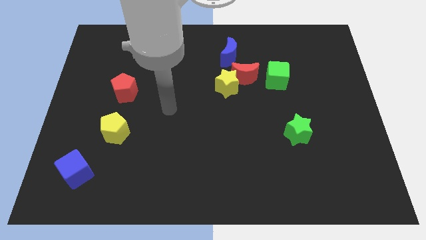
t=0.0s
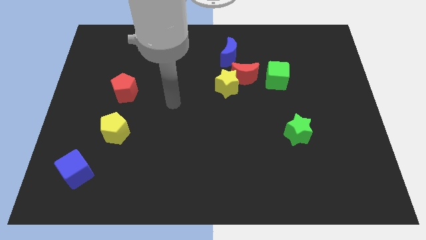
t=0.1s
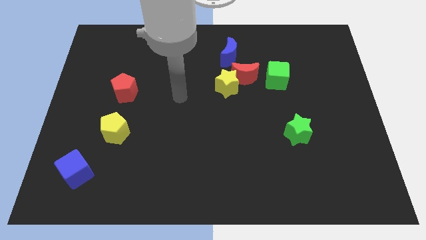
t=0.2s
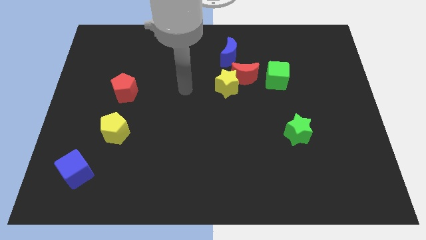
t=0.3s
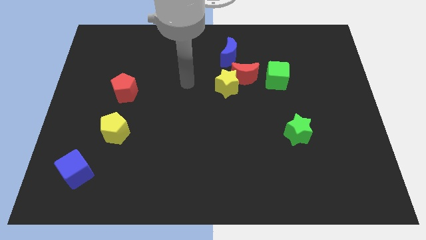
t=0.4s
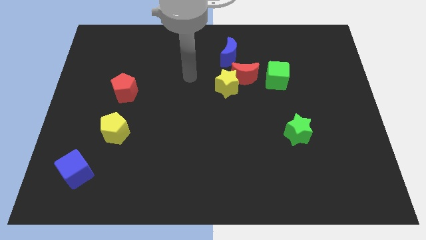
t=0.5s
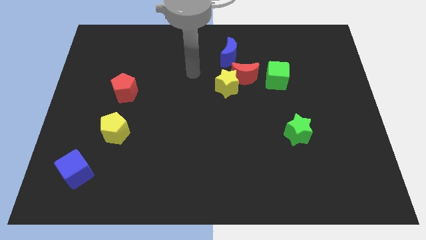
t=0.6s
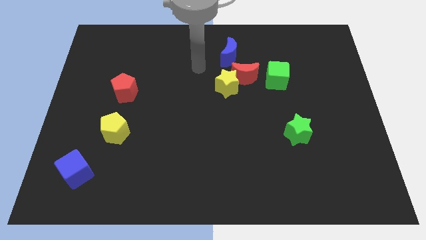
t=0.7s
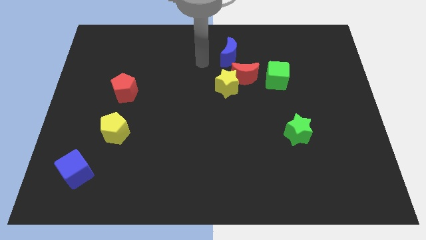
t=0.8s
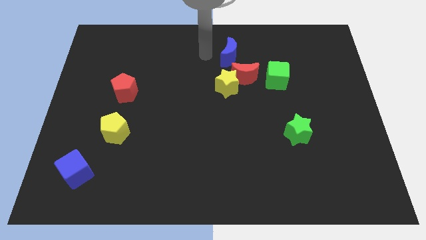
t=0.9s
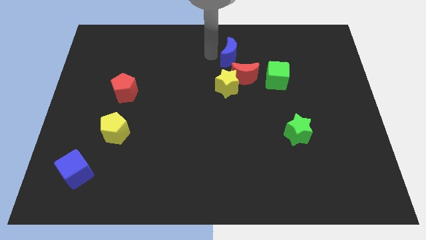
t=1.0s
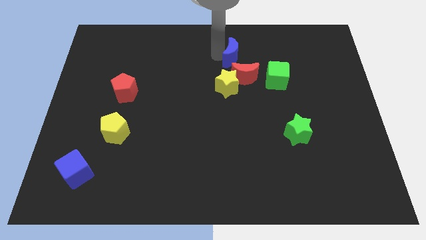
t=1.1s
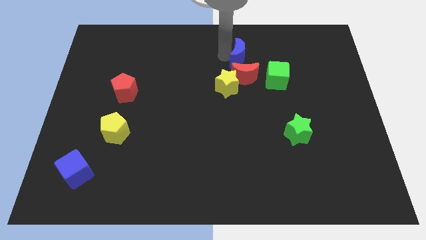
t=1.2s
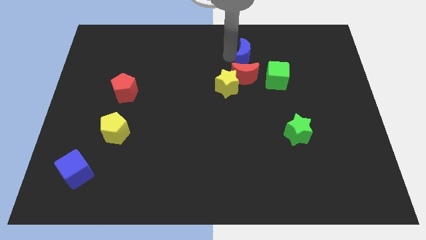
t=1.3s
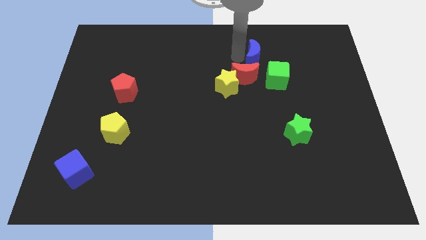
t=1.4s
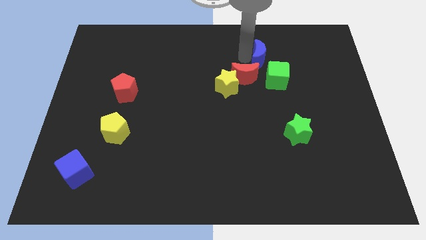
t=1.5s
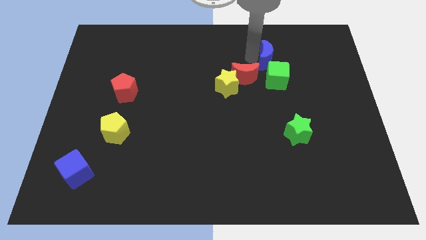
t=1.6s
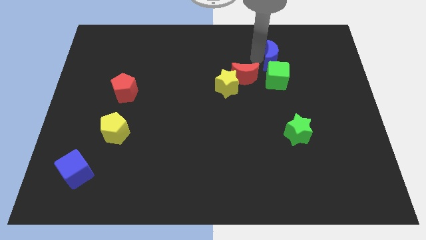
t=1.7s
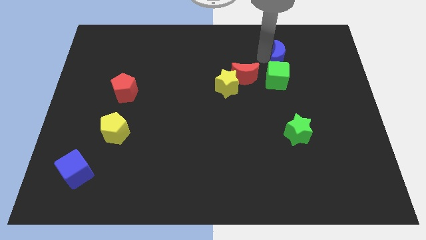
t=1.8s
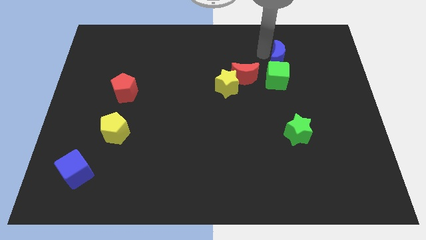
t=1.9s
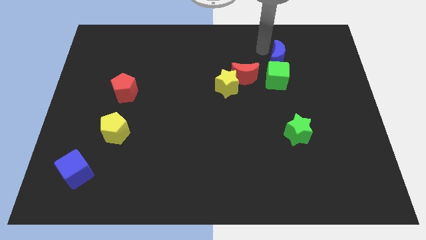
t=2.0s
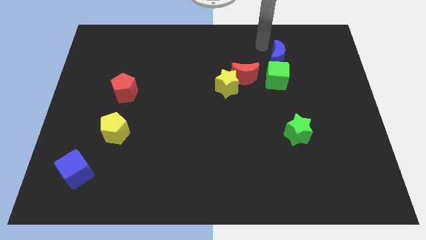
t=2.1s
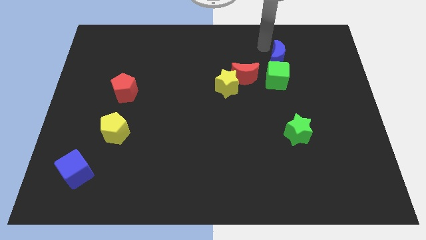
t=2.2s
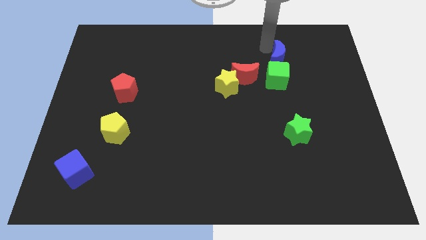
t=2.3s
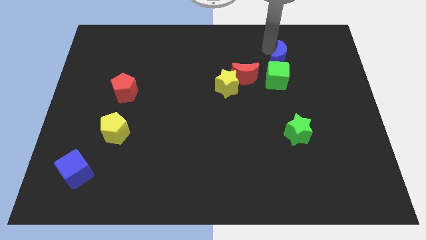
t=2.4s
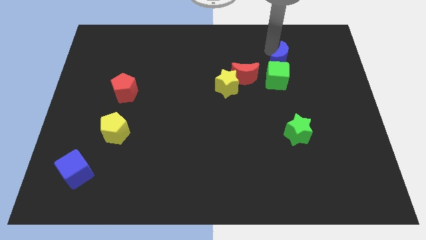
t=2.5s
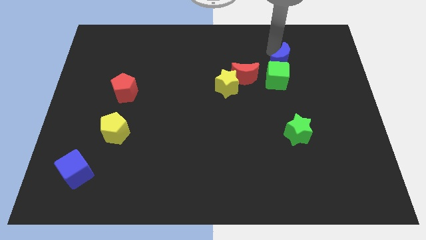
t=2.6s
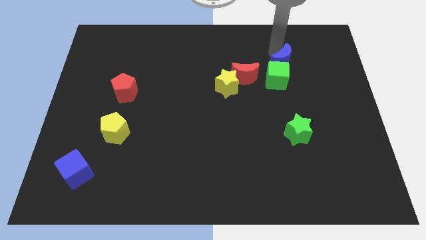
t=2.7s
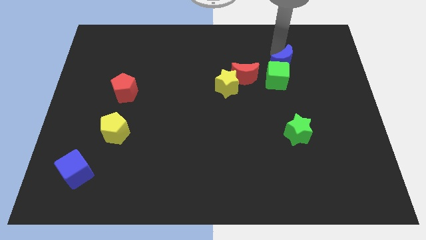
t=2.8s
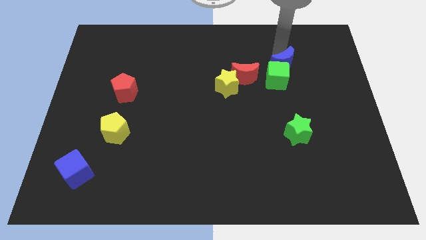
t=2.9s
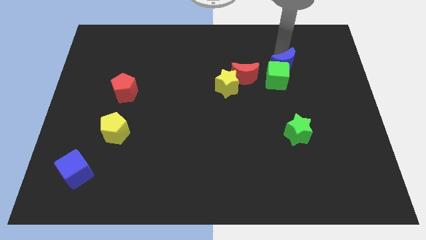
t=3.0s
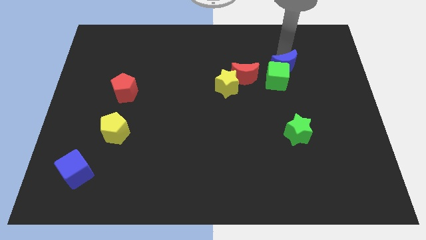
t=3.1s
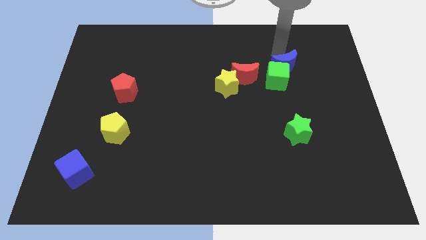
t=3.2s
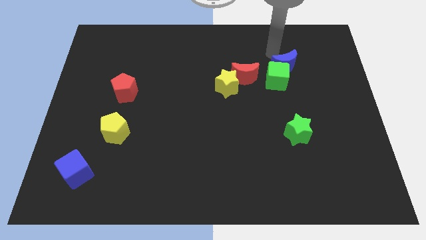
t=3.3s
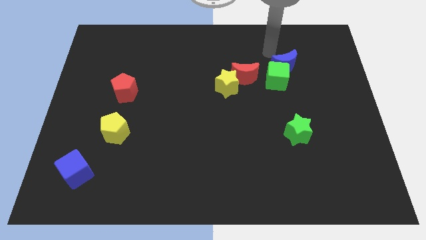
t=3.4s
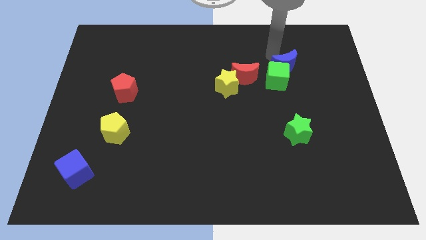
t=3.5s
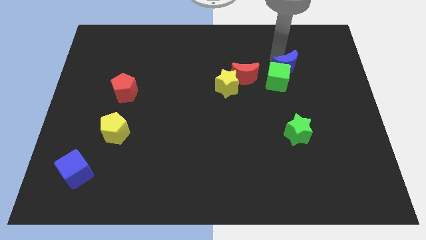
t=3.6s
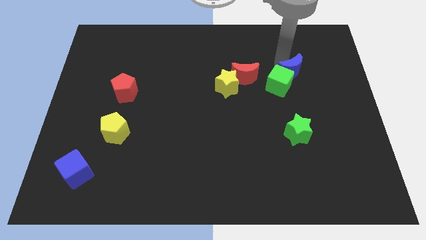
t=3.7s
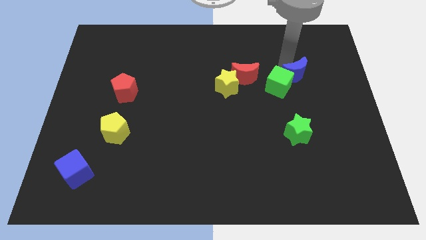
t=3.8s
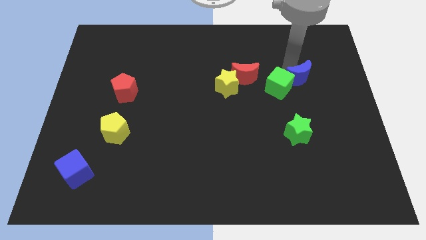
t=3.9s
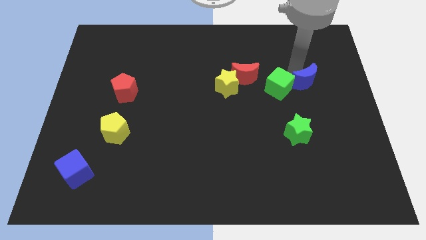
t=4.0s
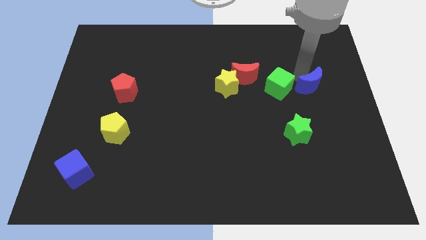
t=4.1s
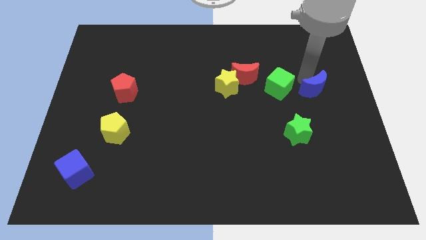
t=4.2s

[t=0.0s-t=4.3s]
push the blue moon downwards and right

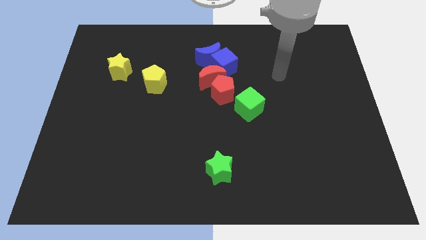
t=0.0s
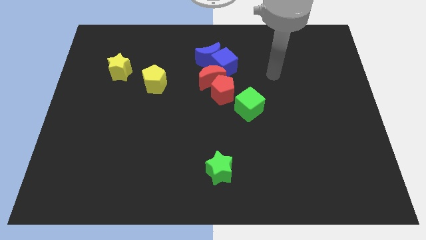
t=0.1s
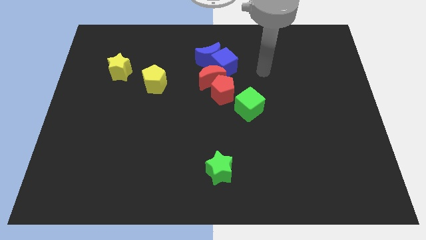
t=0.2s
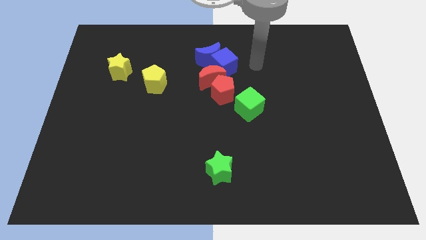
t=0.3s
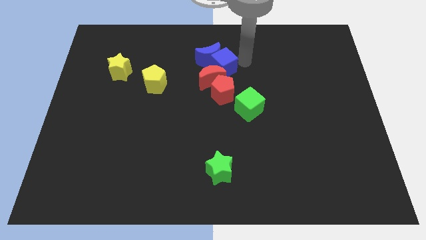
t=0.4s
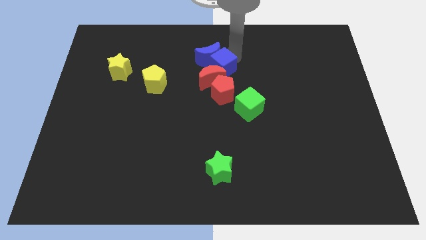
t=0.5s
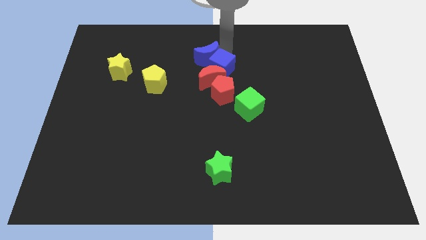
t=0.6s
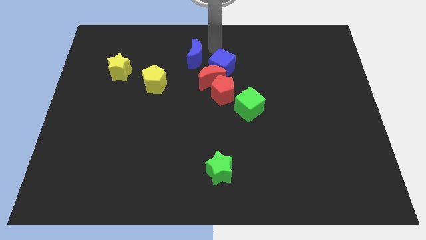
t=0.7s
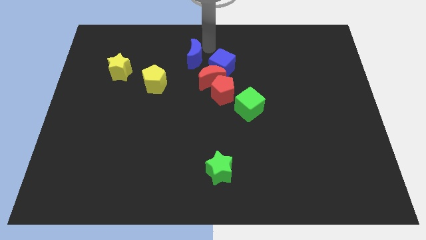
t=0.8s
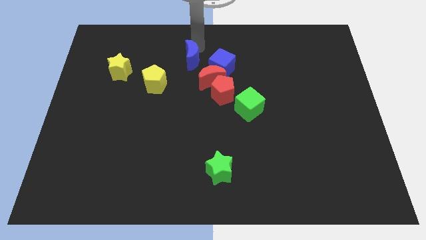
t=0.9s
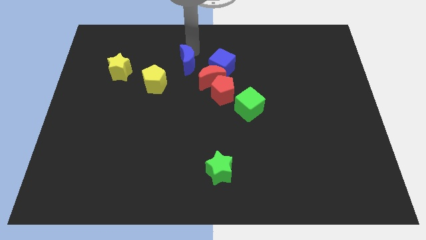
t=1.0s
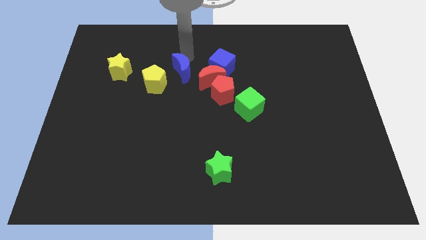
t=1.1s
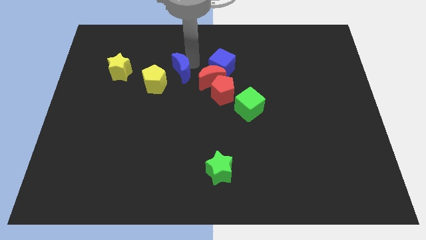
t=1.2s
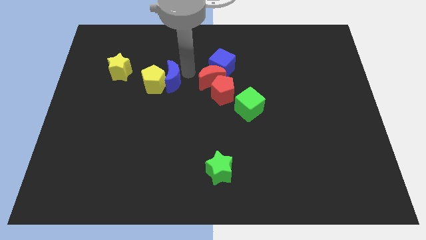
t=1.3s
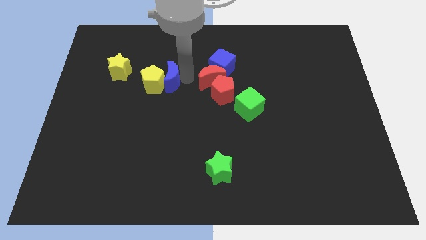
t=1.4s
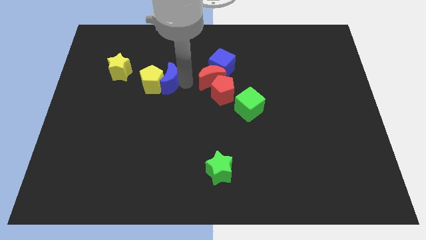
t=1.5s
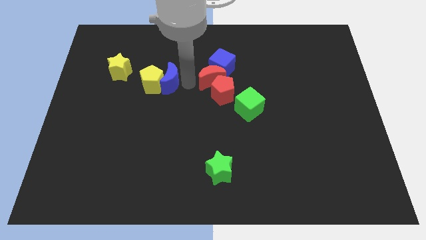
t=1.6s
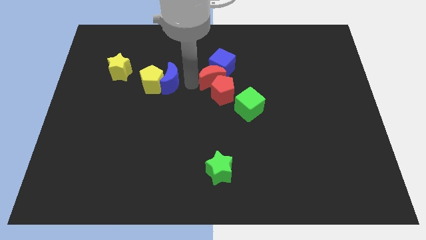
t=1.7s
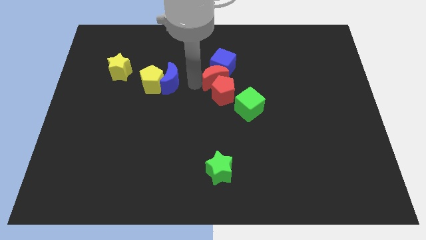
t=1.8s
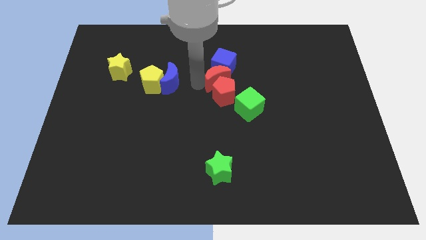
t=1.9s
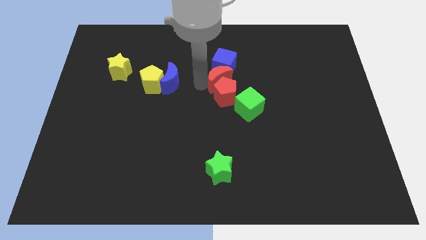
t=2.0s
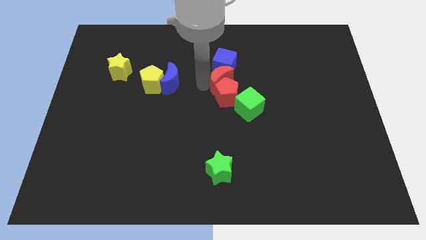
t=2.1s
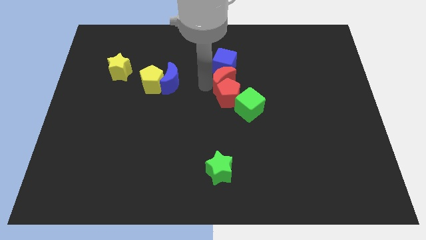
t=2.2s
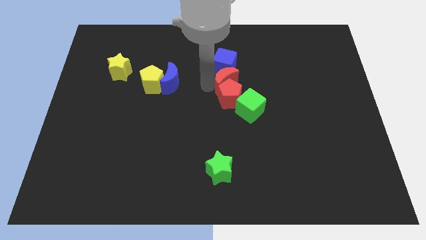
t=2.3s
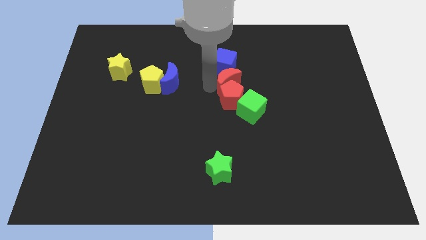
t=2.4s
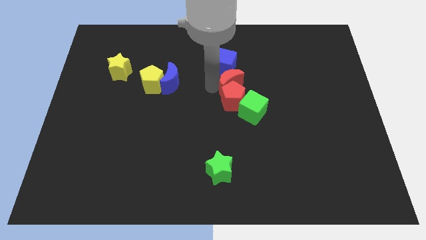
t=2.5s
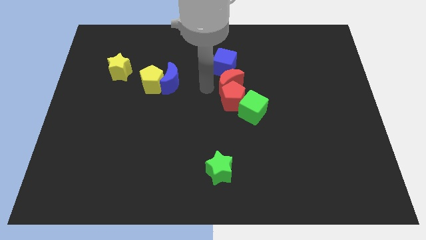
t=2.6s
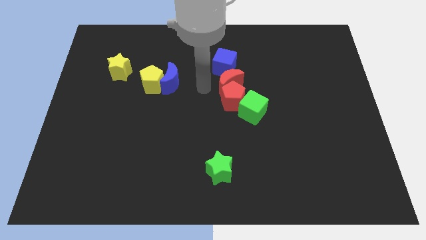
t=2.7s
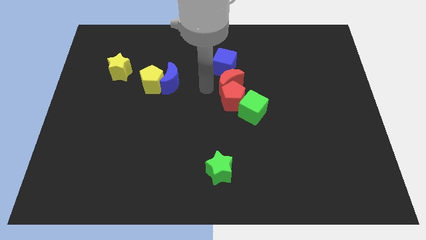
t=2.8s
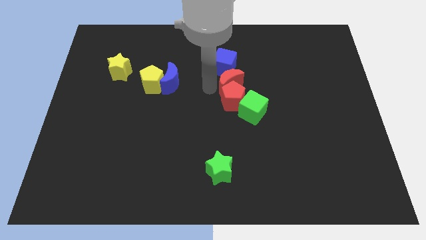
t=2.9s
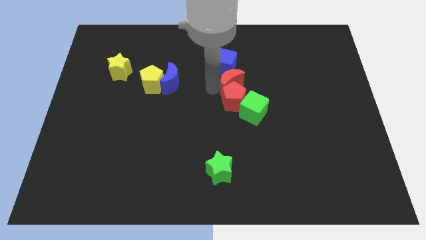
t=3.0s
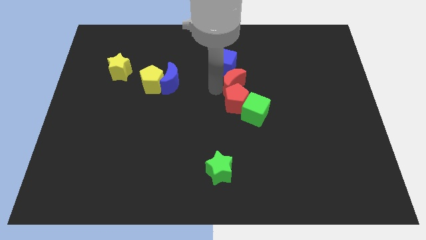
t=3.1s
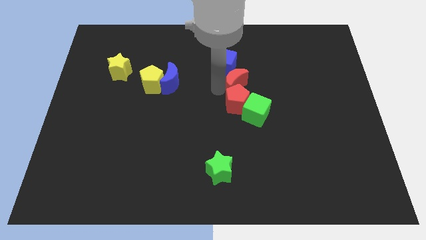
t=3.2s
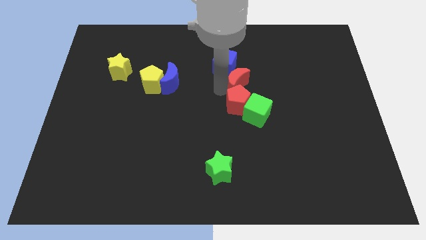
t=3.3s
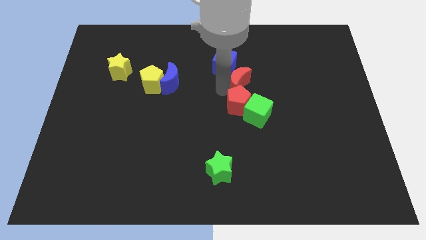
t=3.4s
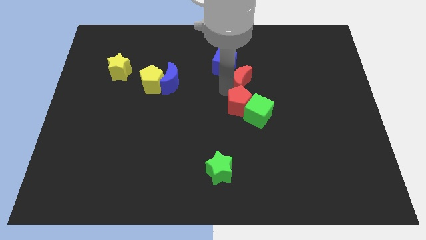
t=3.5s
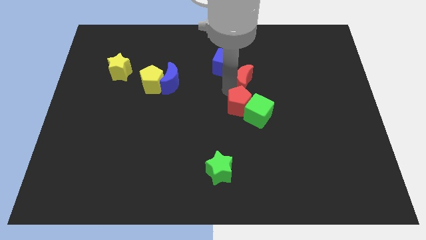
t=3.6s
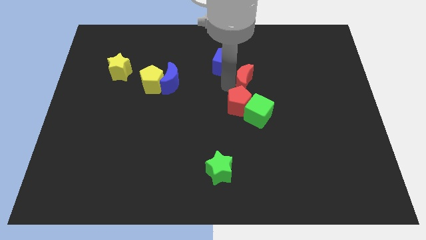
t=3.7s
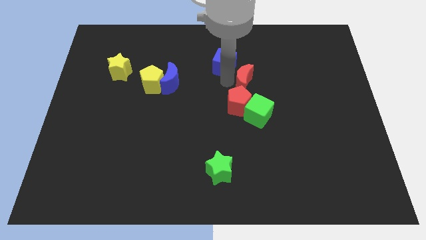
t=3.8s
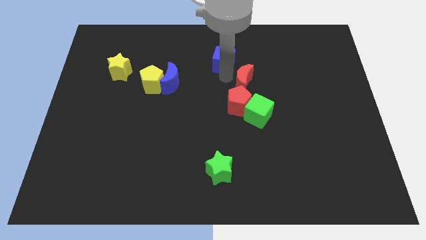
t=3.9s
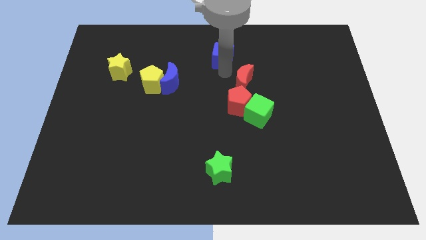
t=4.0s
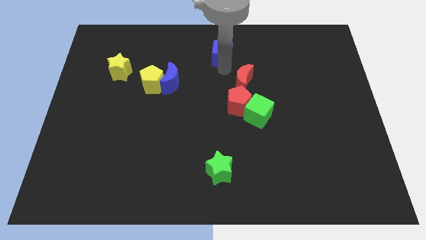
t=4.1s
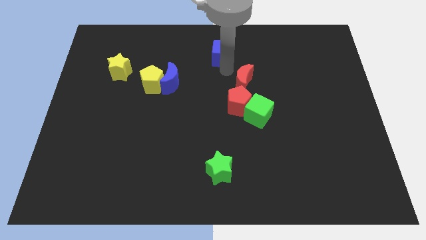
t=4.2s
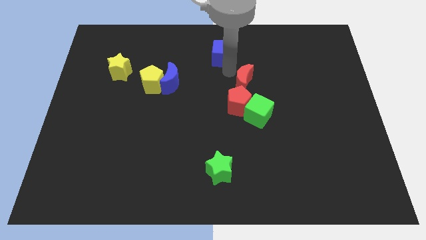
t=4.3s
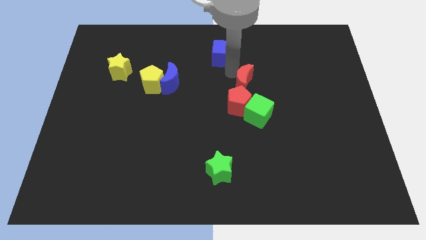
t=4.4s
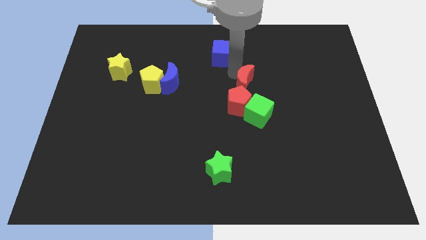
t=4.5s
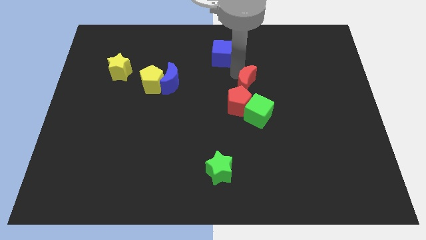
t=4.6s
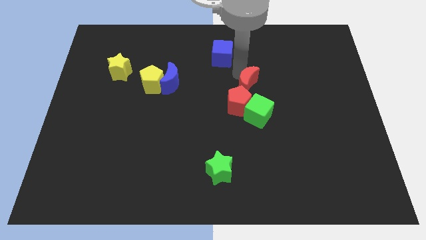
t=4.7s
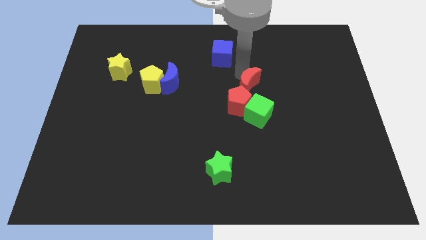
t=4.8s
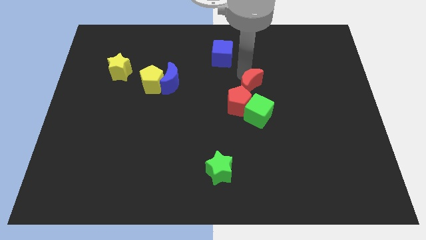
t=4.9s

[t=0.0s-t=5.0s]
slide the red moon down and right slightly
